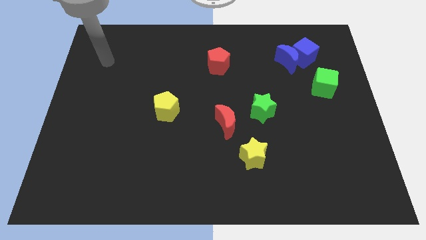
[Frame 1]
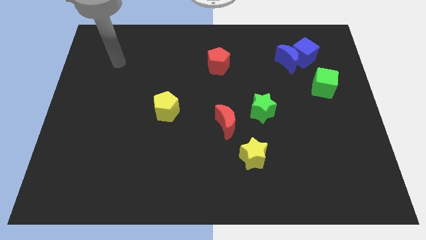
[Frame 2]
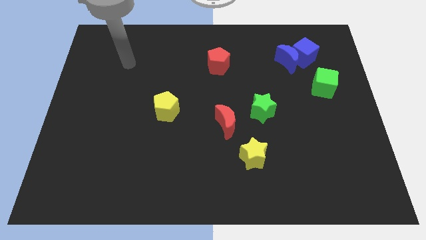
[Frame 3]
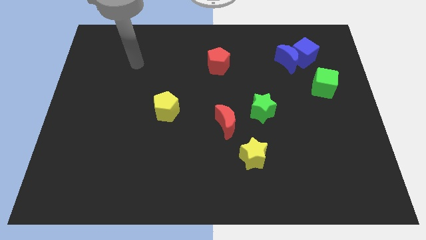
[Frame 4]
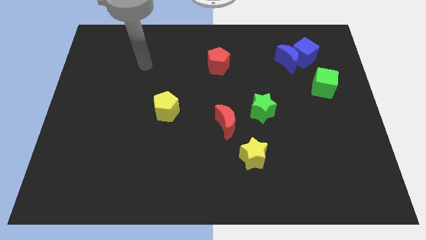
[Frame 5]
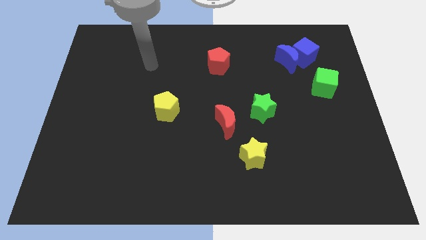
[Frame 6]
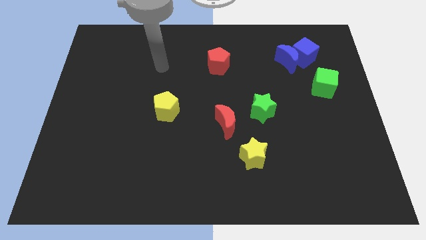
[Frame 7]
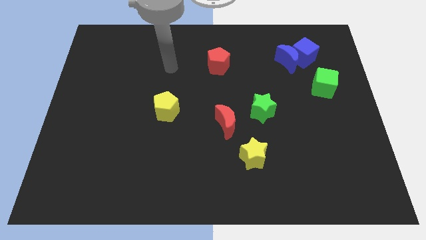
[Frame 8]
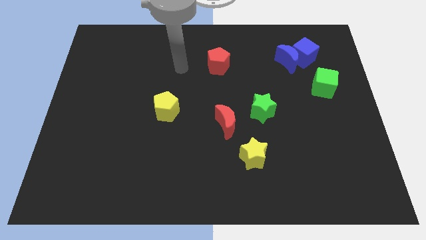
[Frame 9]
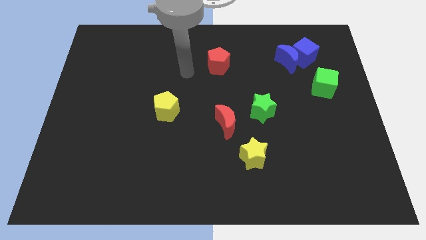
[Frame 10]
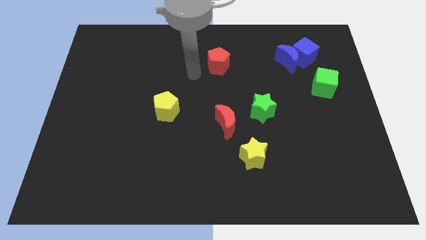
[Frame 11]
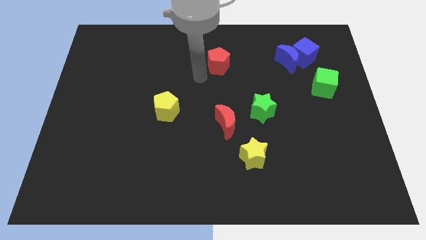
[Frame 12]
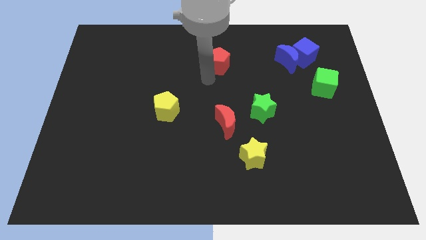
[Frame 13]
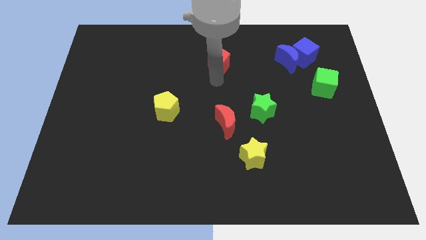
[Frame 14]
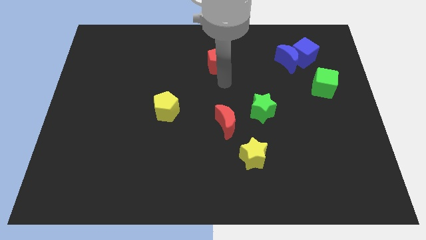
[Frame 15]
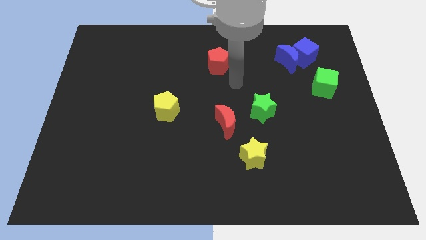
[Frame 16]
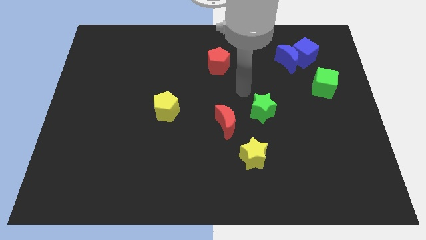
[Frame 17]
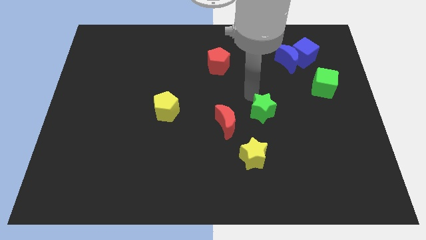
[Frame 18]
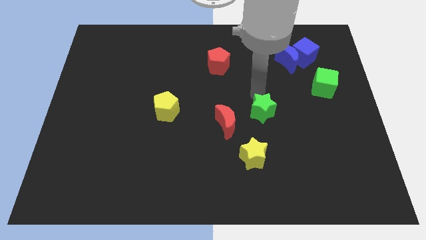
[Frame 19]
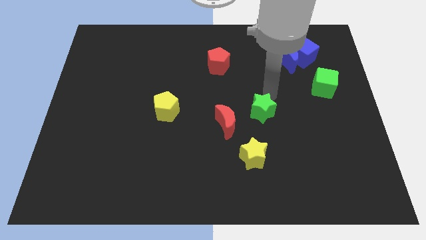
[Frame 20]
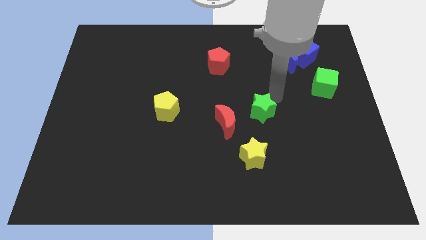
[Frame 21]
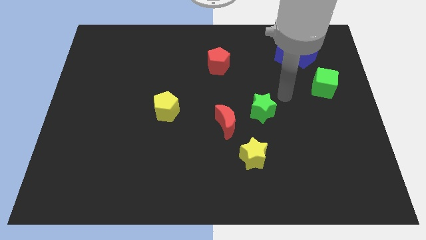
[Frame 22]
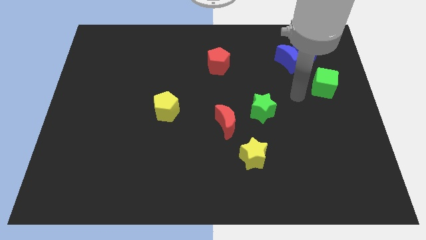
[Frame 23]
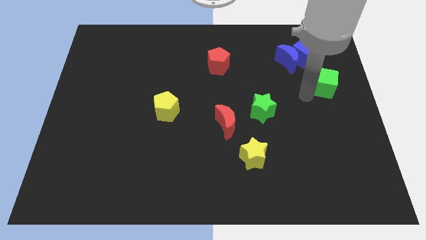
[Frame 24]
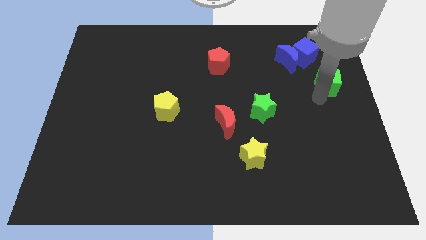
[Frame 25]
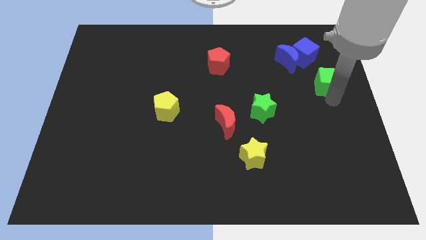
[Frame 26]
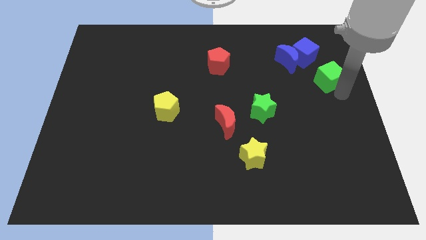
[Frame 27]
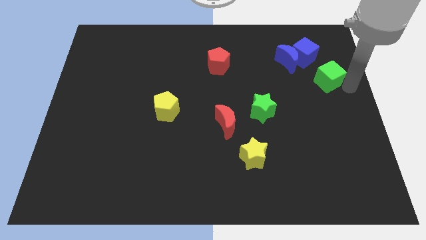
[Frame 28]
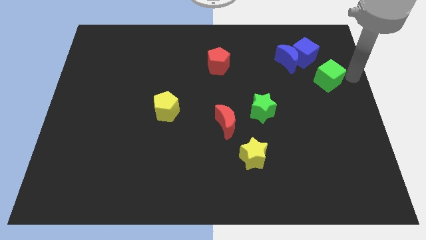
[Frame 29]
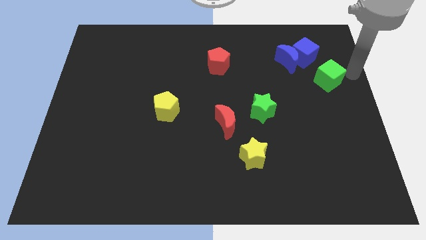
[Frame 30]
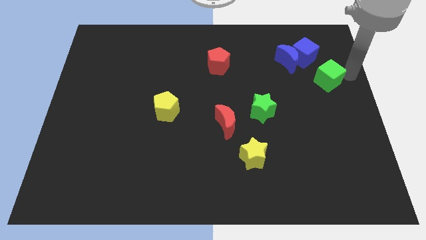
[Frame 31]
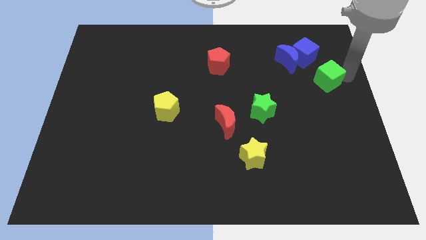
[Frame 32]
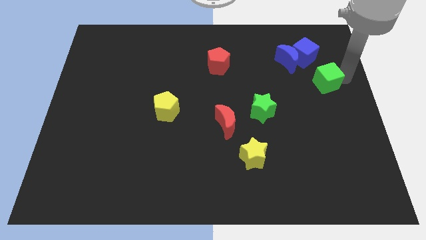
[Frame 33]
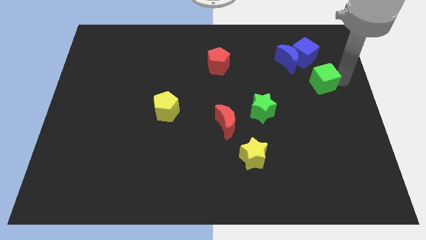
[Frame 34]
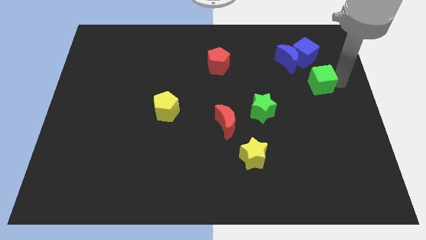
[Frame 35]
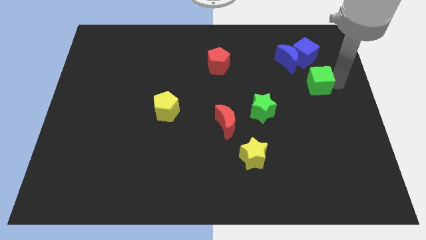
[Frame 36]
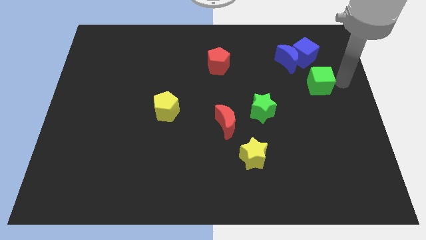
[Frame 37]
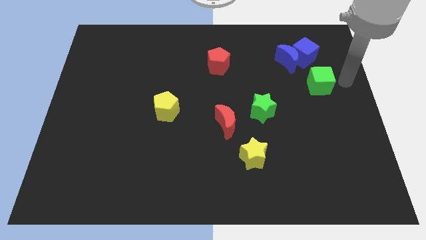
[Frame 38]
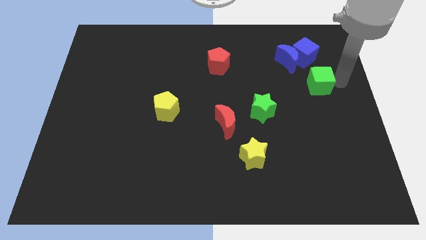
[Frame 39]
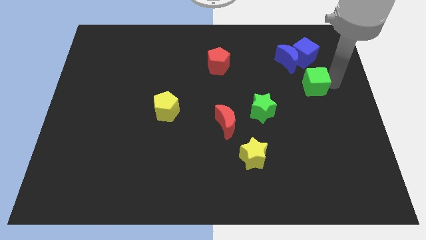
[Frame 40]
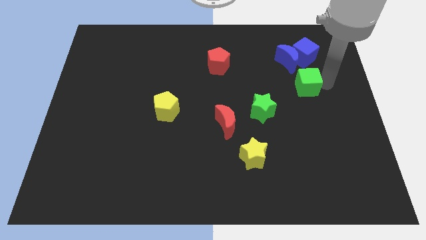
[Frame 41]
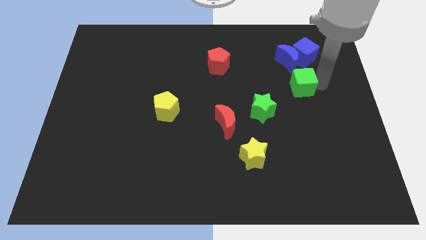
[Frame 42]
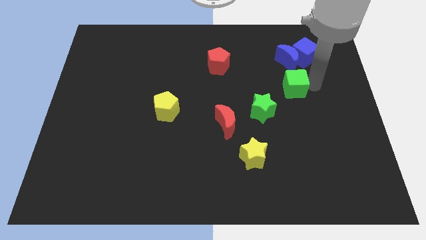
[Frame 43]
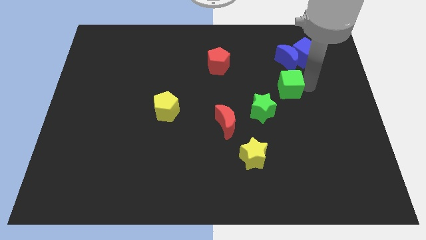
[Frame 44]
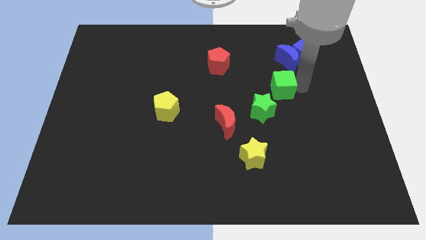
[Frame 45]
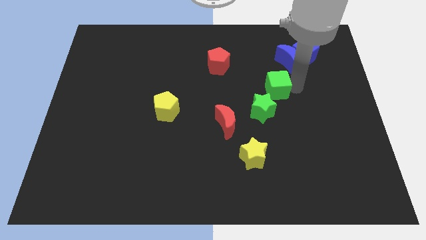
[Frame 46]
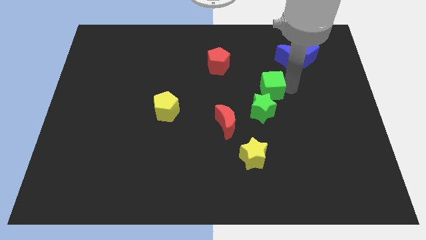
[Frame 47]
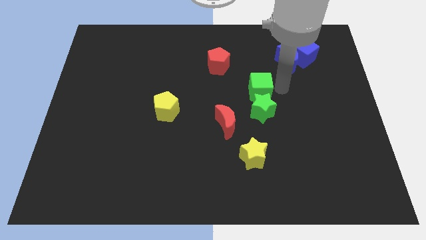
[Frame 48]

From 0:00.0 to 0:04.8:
put the green cube to the top left side of the green star

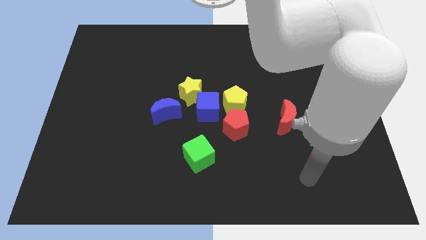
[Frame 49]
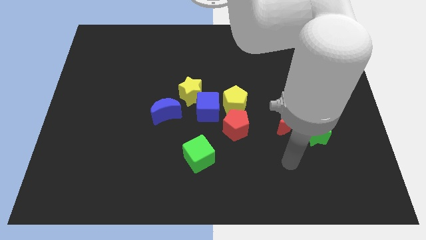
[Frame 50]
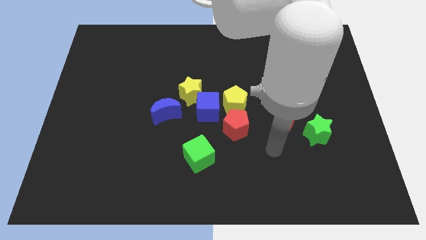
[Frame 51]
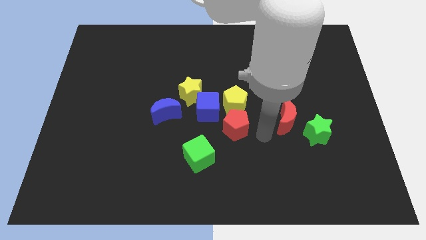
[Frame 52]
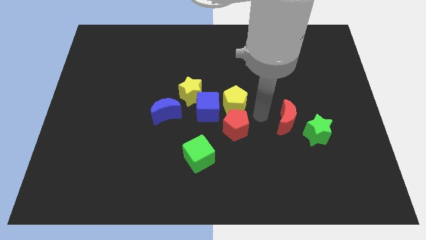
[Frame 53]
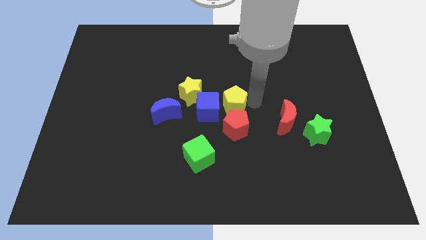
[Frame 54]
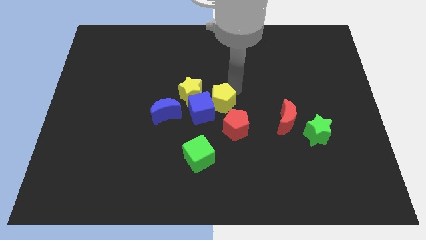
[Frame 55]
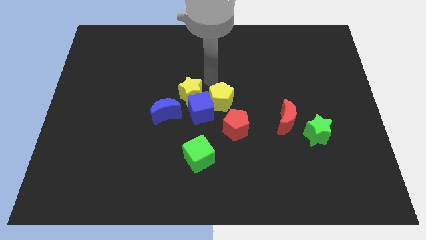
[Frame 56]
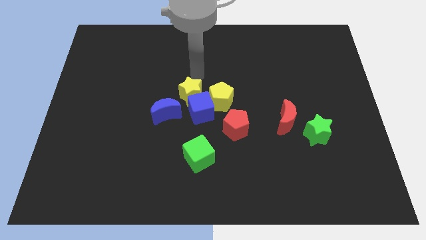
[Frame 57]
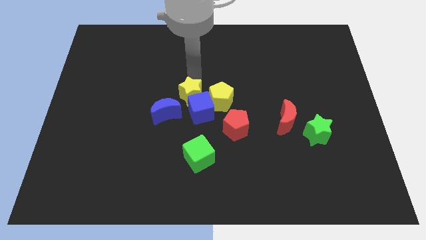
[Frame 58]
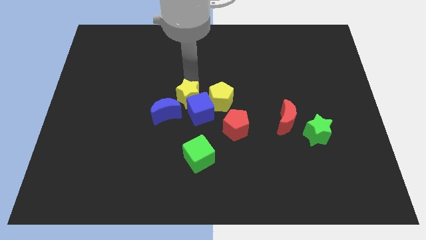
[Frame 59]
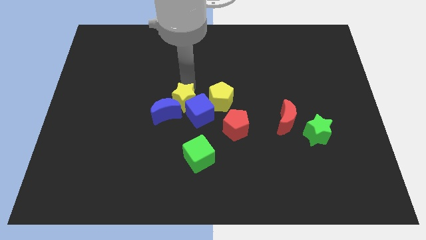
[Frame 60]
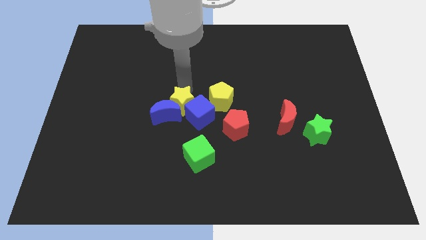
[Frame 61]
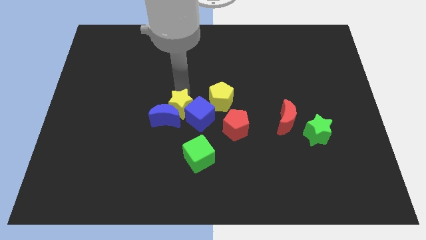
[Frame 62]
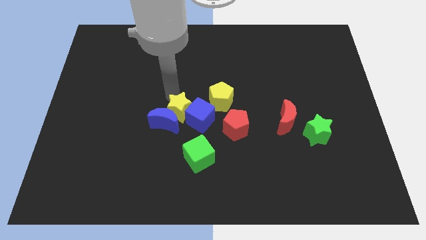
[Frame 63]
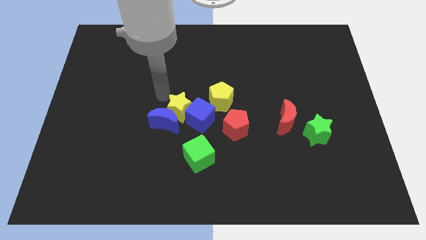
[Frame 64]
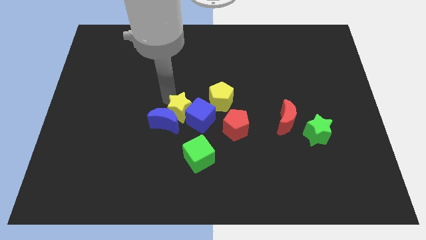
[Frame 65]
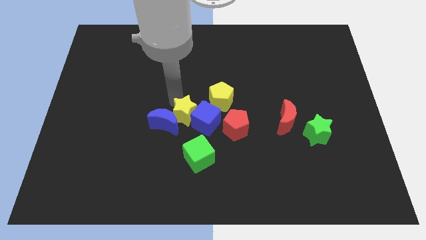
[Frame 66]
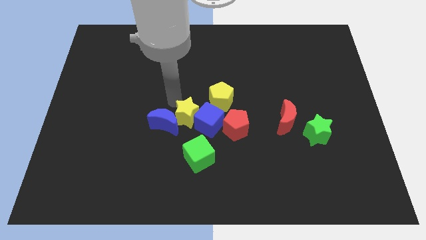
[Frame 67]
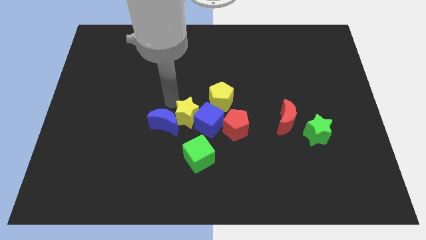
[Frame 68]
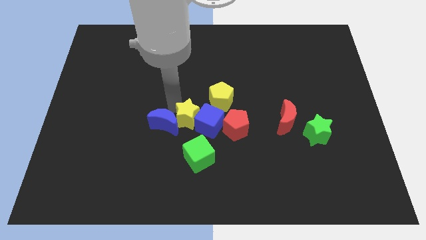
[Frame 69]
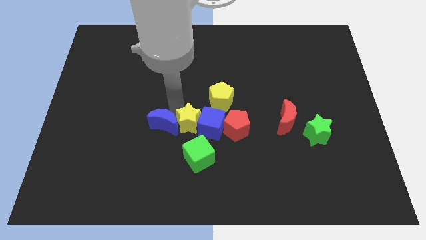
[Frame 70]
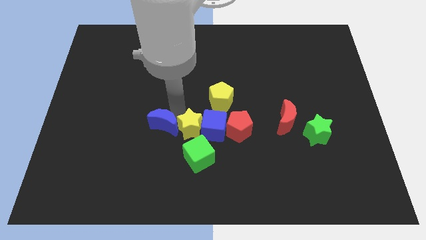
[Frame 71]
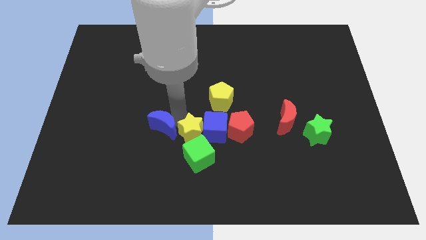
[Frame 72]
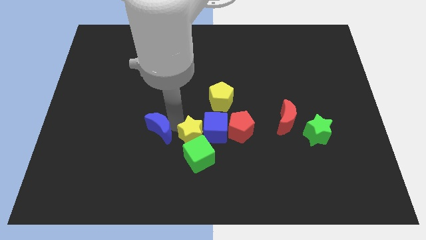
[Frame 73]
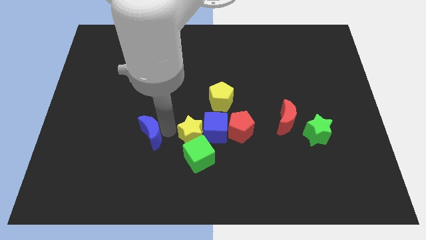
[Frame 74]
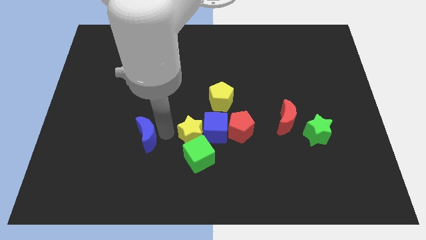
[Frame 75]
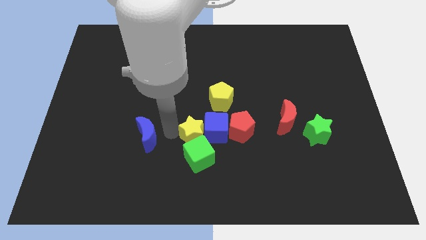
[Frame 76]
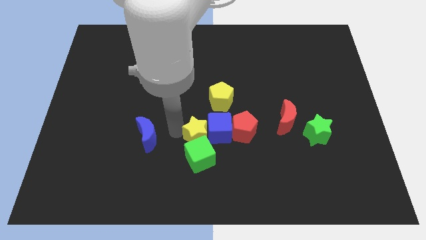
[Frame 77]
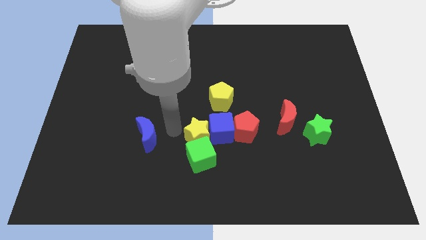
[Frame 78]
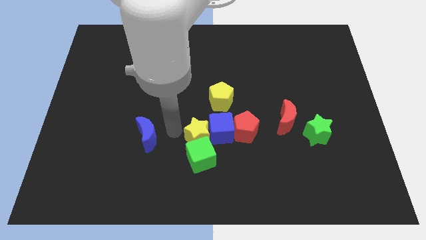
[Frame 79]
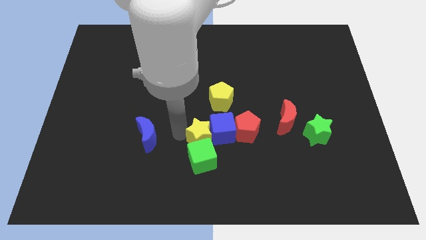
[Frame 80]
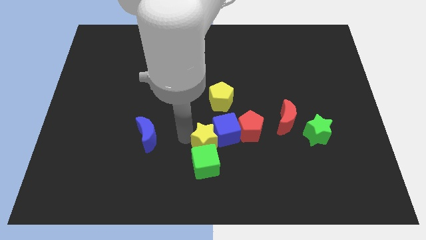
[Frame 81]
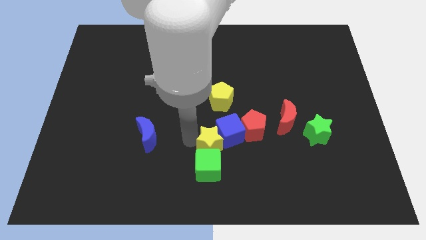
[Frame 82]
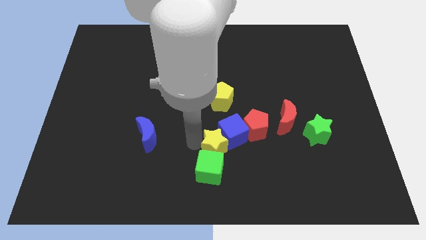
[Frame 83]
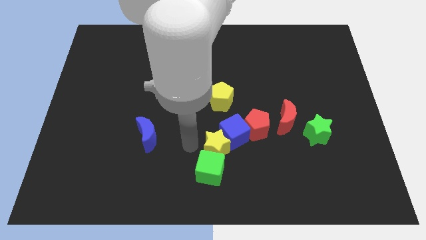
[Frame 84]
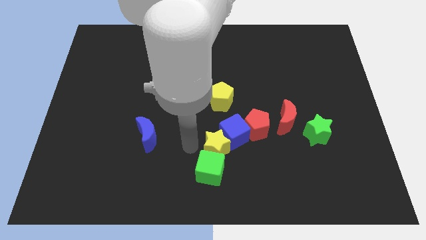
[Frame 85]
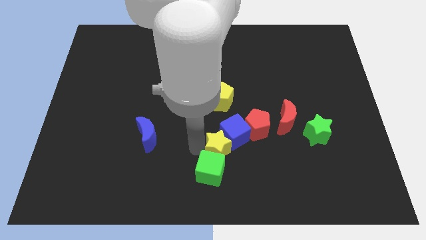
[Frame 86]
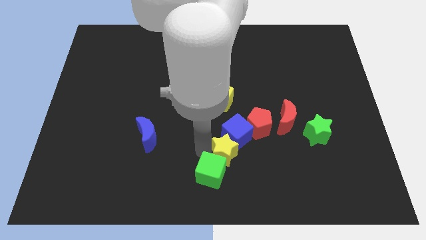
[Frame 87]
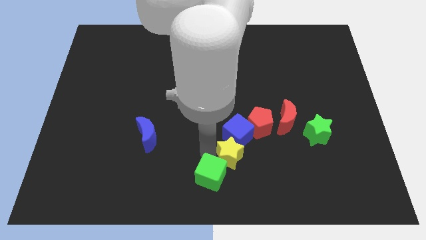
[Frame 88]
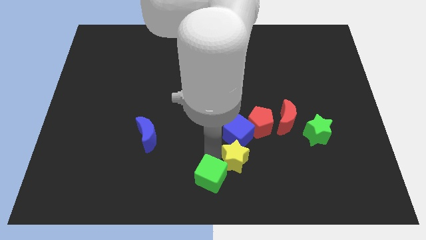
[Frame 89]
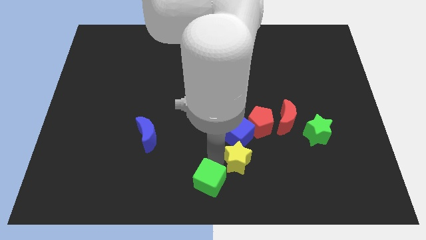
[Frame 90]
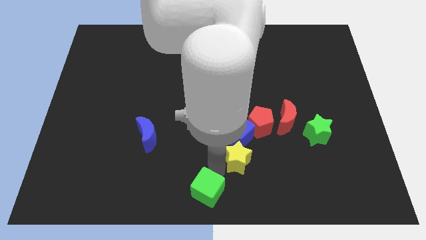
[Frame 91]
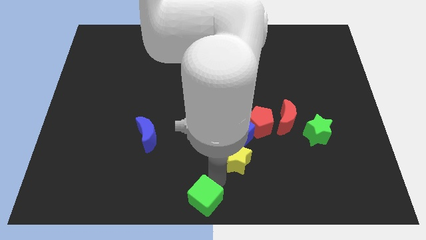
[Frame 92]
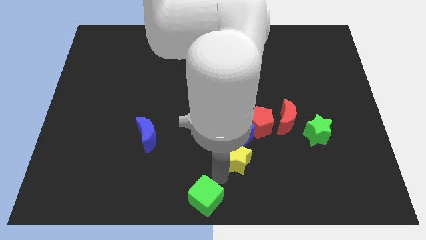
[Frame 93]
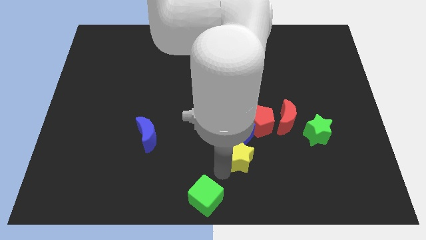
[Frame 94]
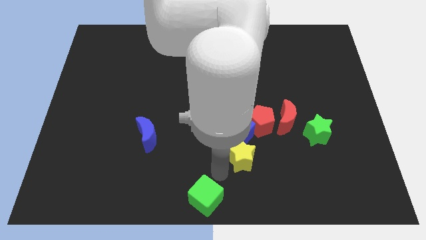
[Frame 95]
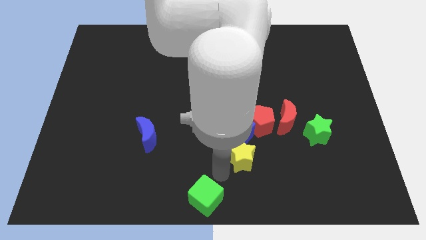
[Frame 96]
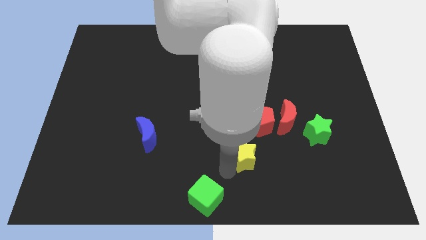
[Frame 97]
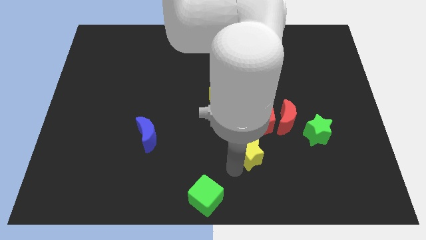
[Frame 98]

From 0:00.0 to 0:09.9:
slide the yellow star to the bottom left of the red moon
